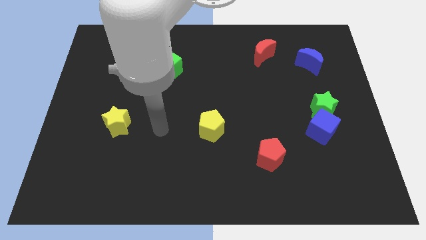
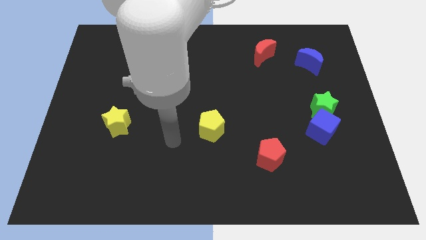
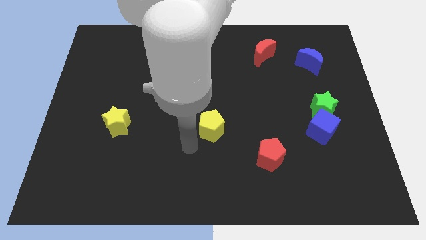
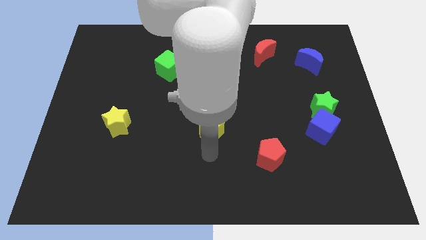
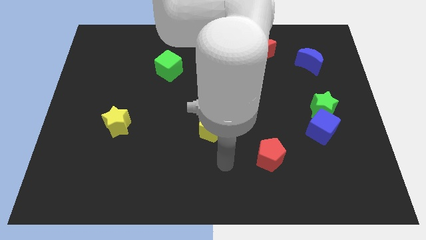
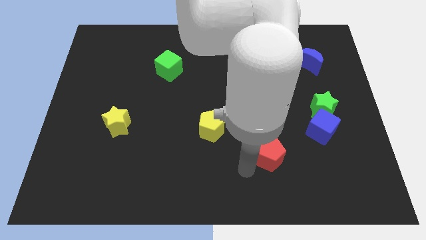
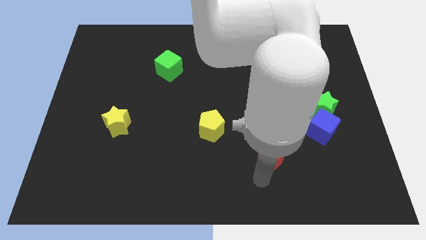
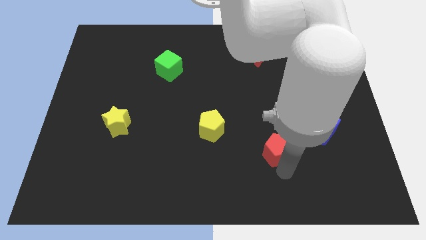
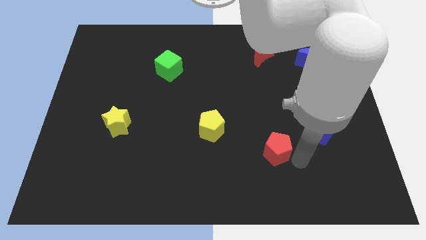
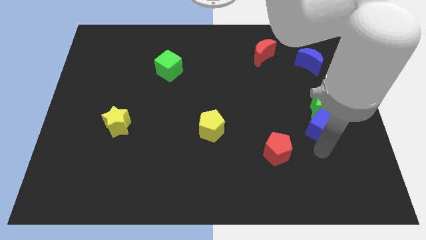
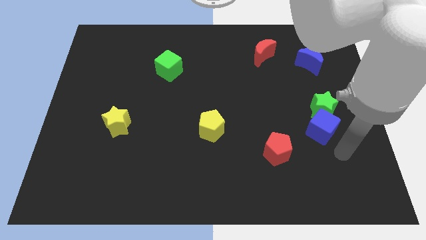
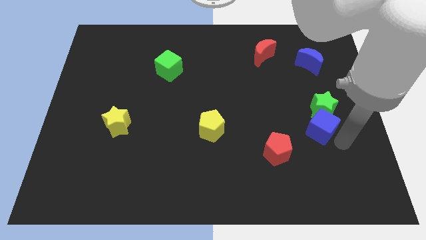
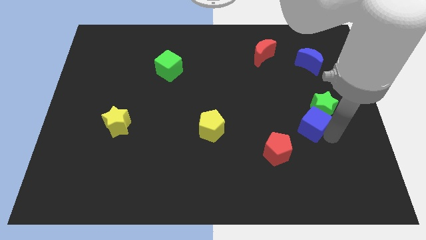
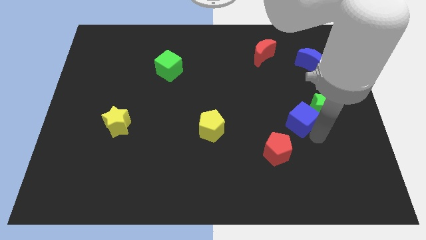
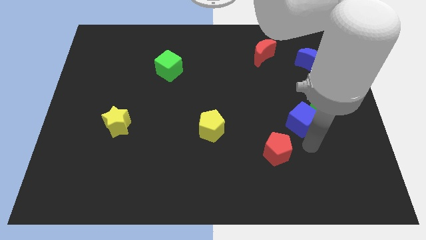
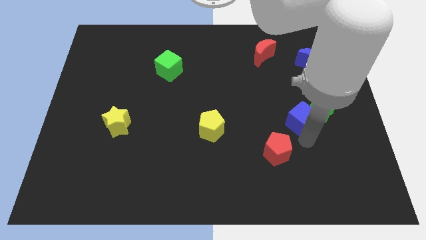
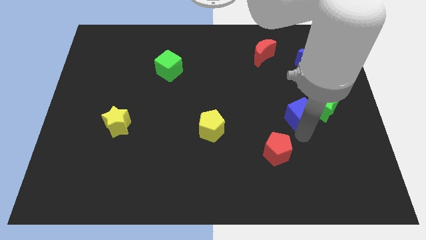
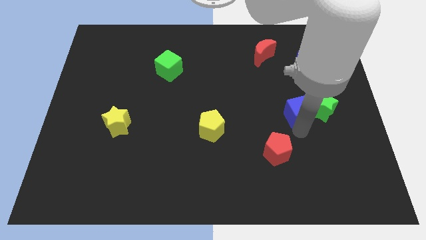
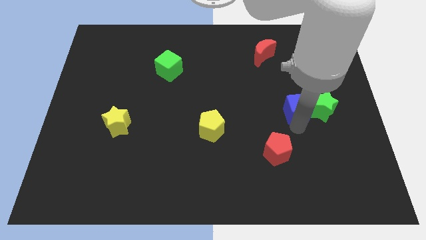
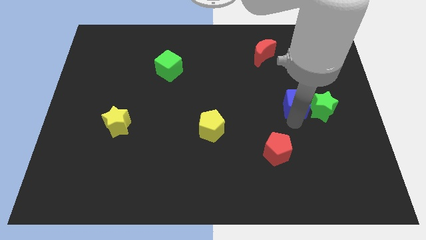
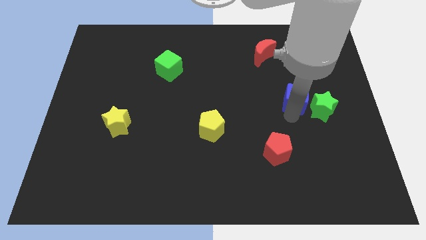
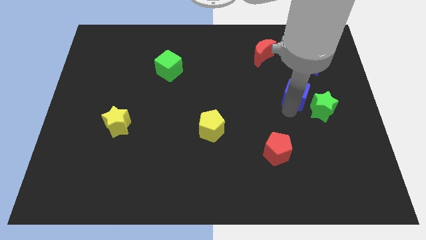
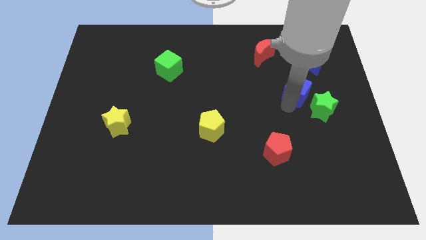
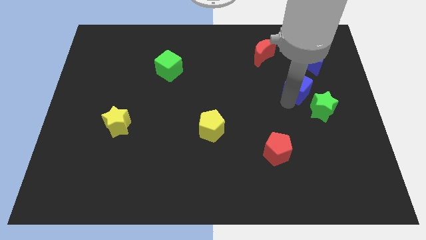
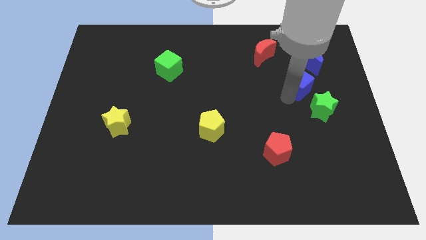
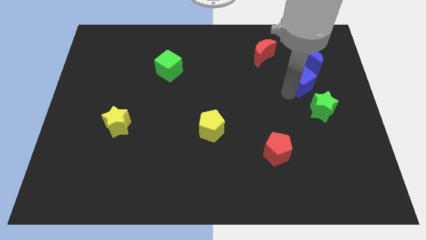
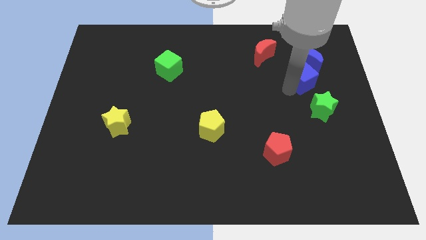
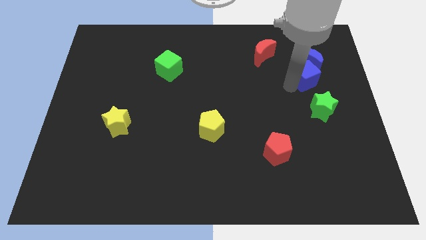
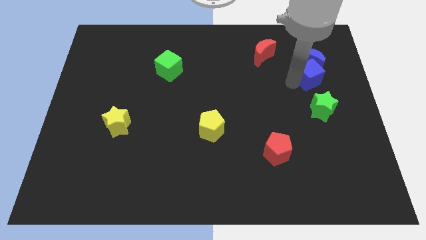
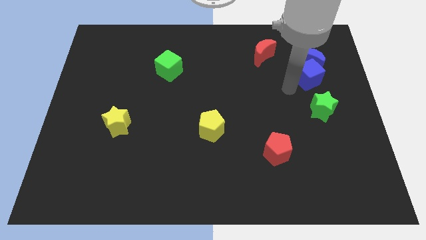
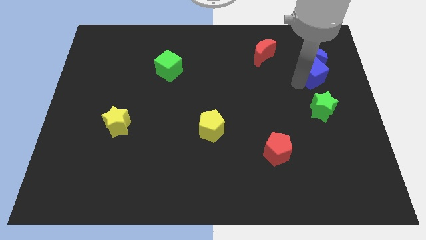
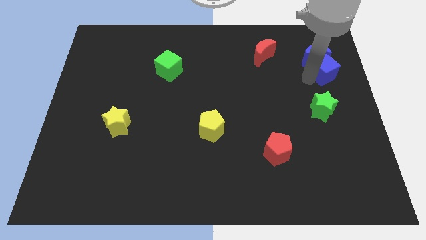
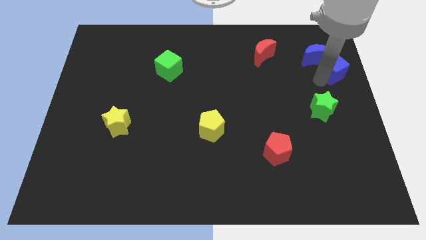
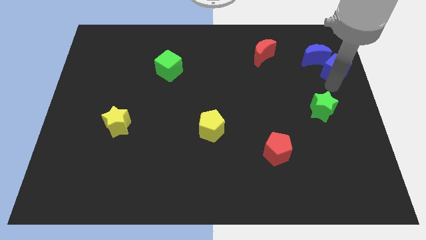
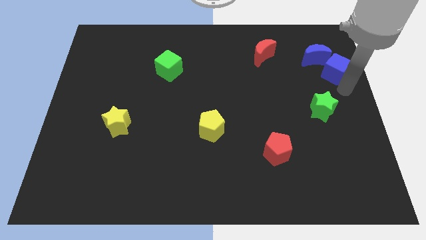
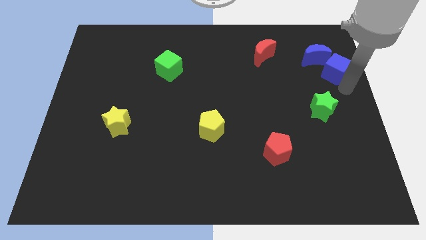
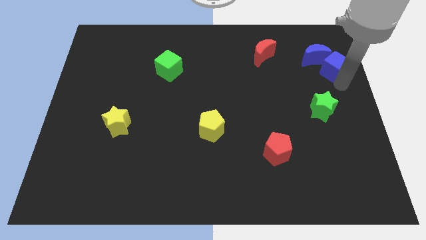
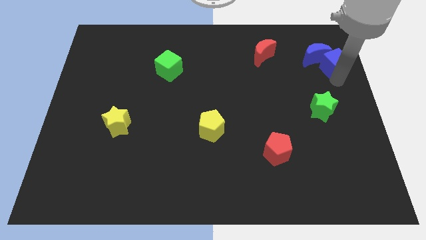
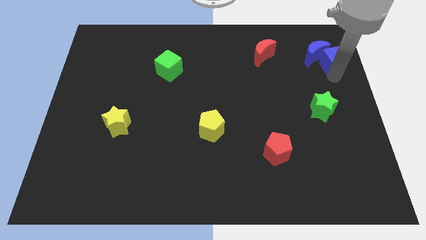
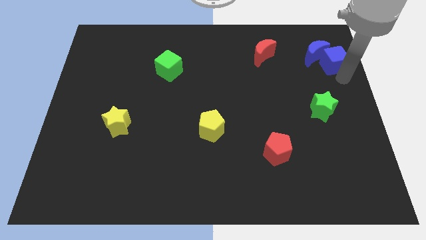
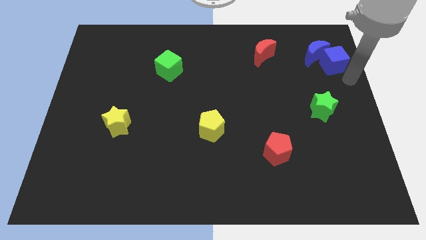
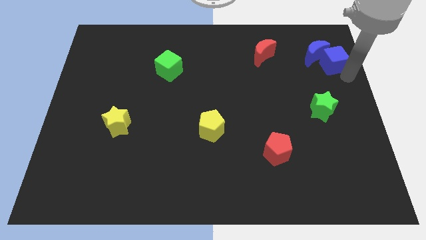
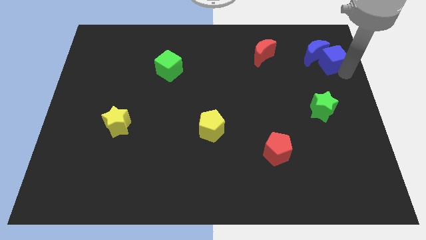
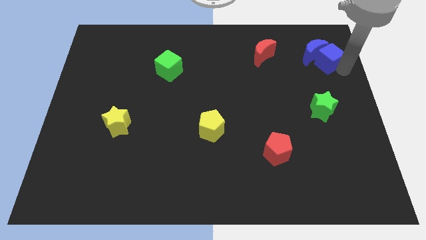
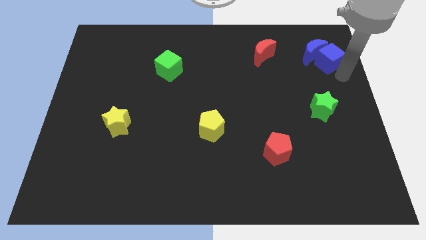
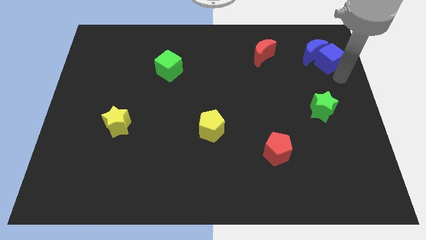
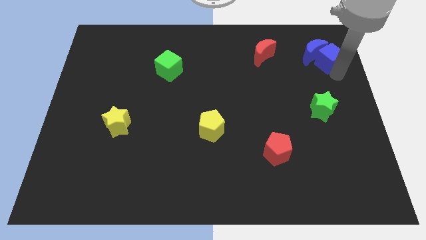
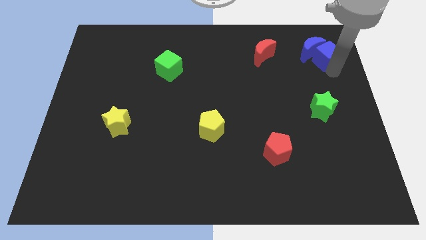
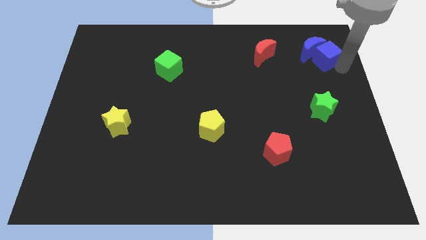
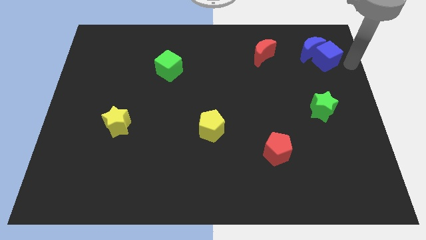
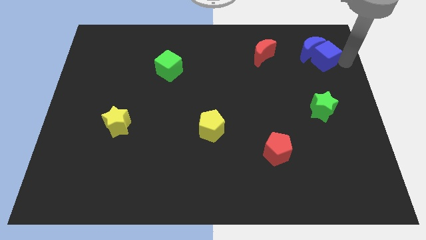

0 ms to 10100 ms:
slide the blue cube to the right of the red moon

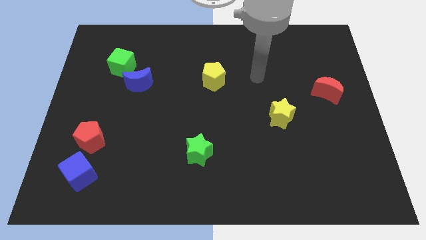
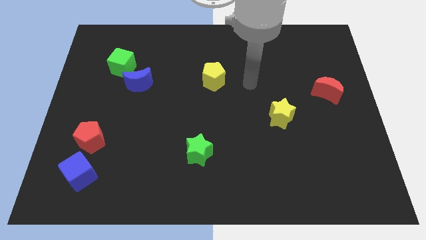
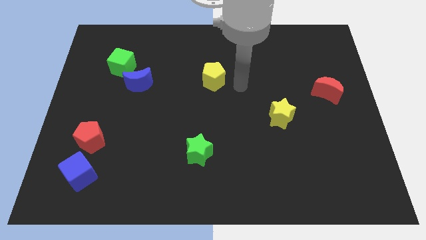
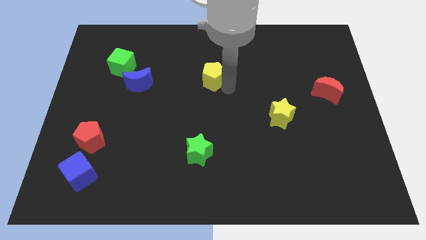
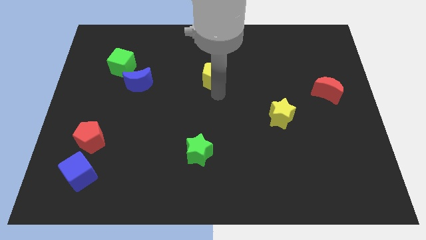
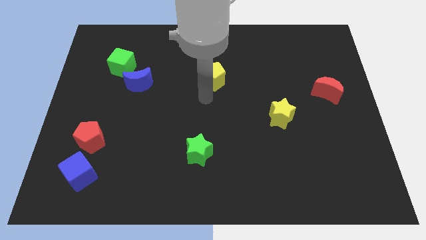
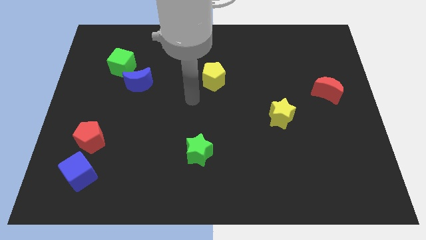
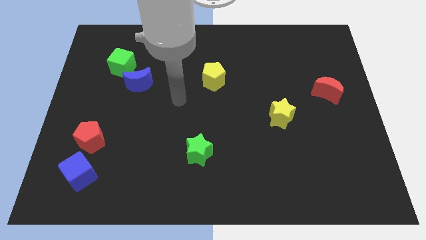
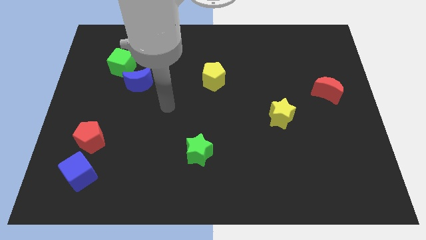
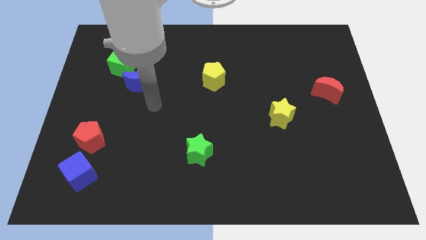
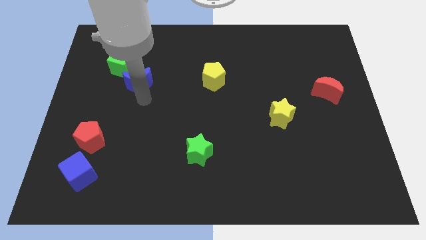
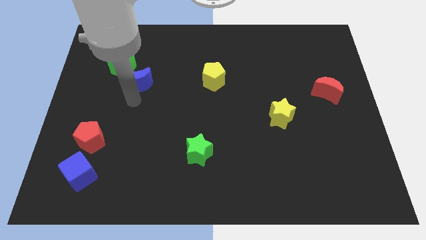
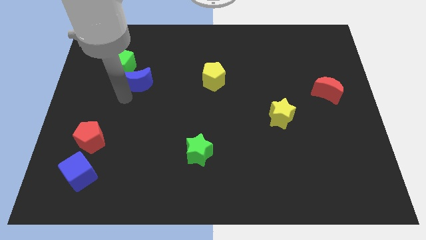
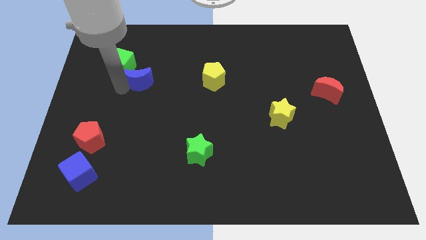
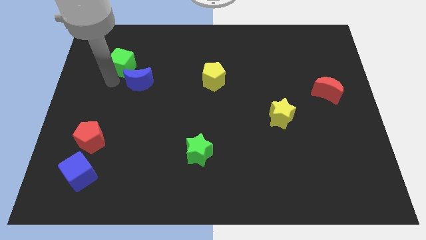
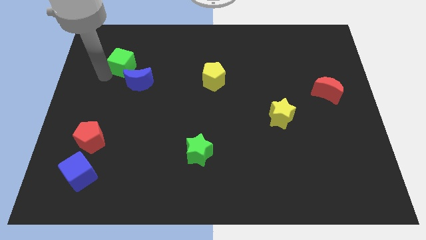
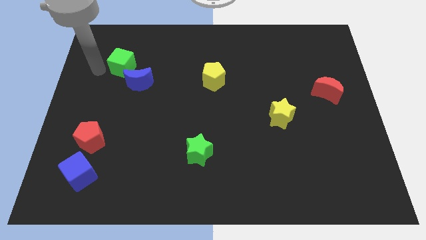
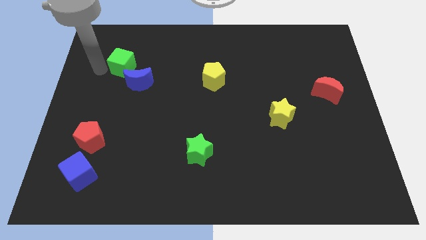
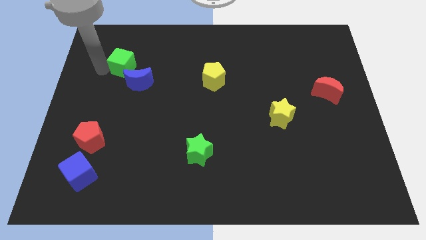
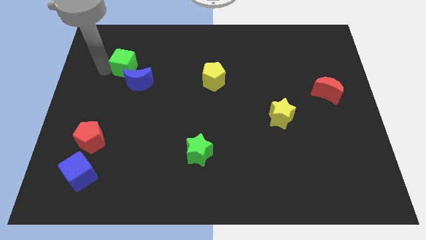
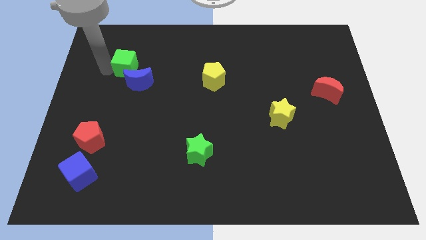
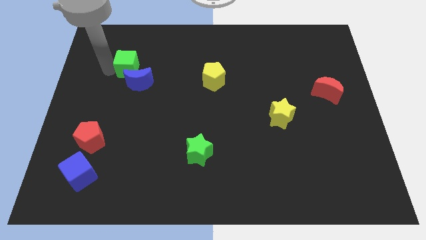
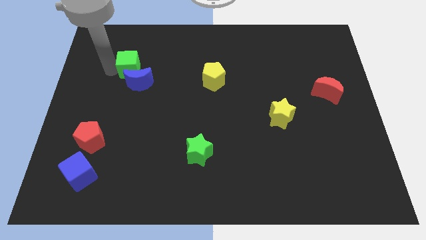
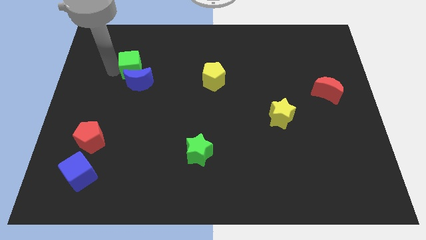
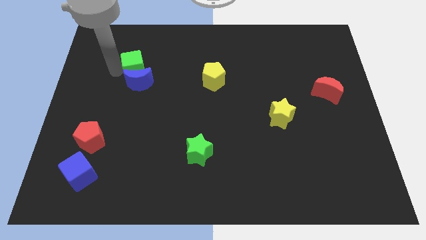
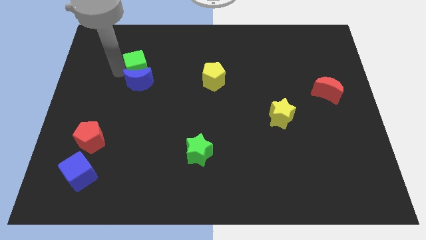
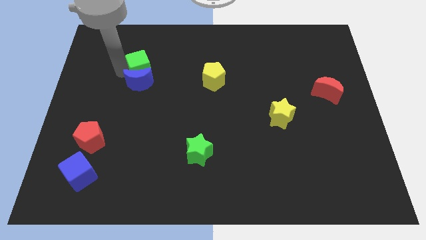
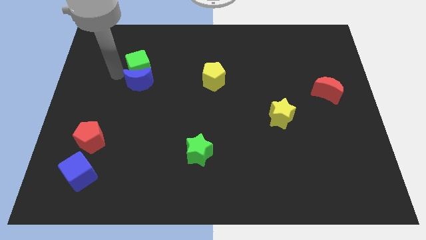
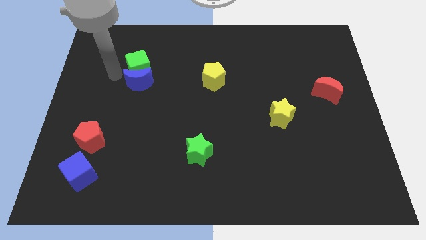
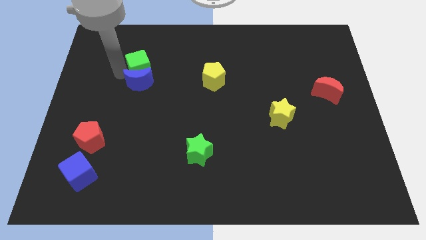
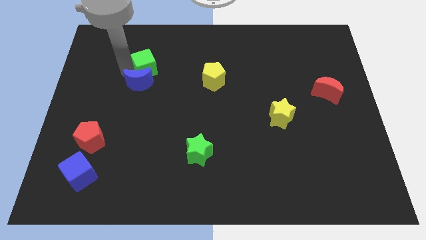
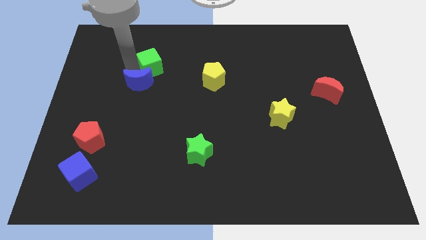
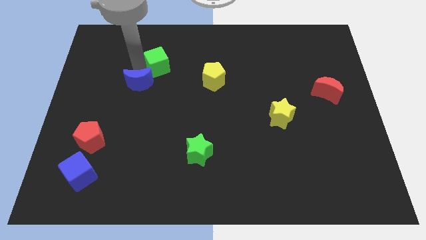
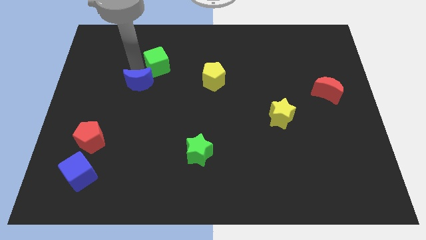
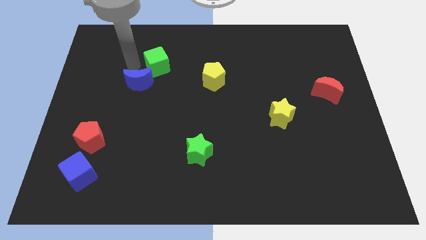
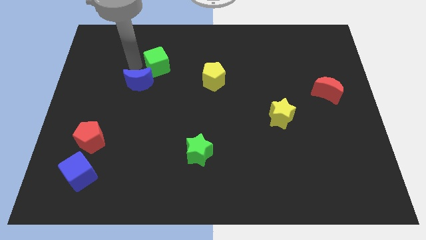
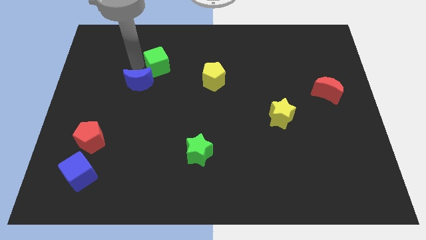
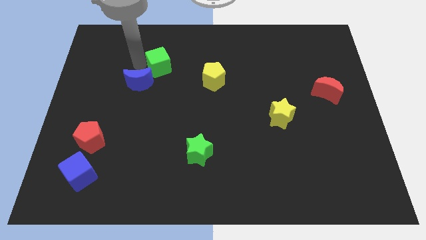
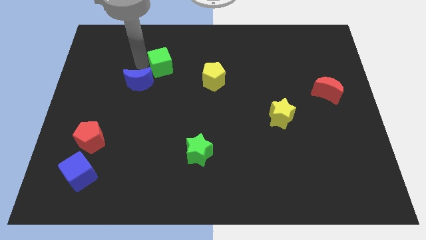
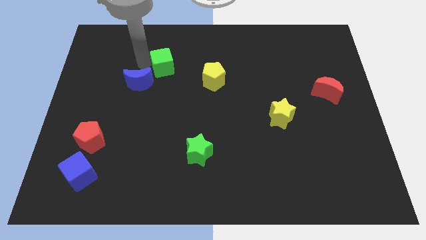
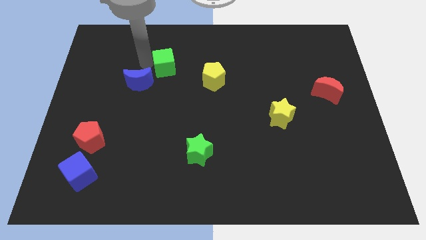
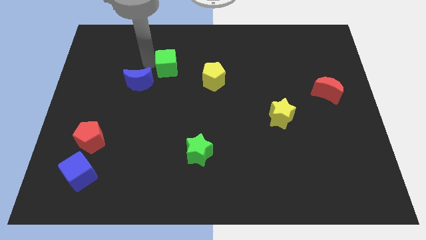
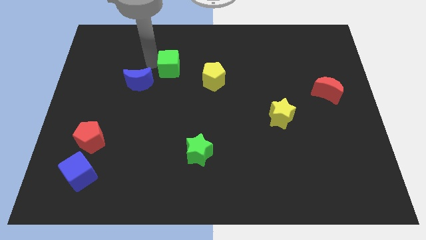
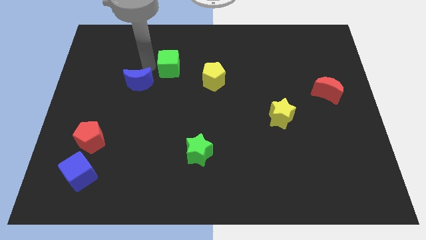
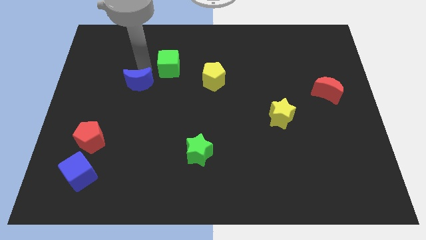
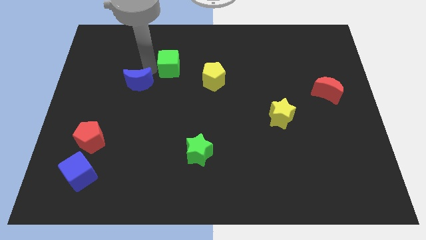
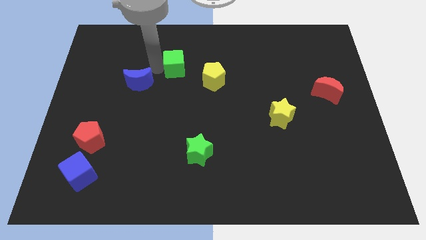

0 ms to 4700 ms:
push the green cube to the top left of the yellow pentagon
